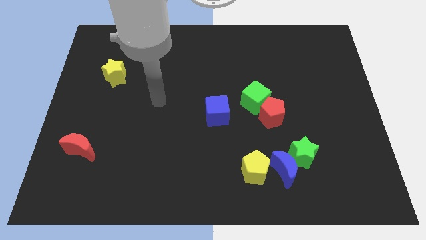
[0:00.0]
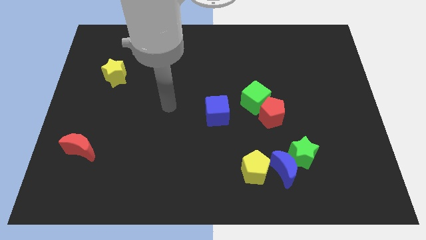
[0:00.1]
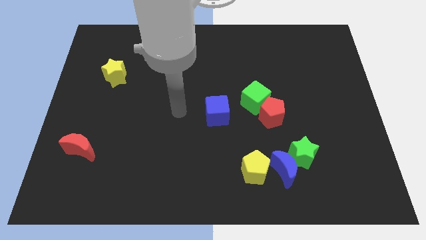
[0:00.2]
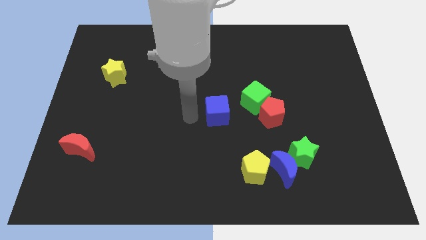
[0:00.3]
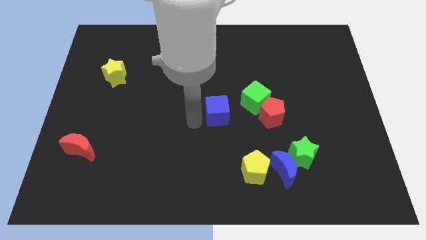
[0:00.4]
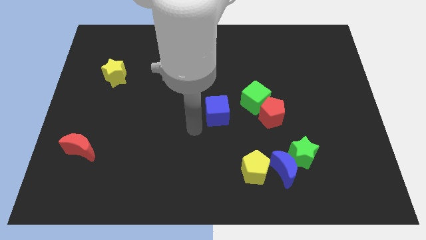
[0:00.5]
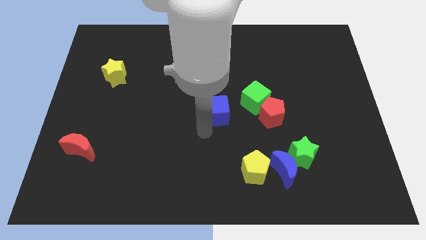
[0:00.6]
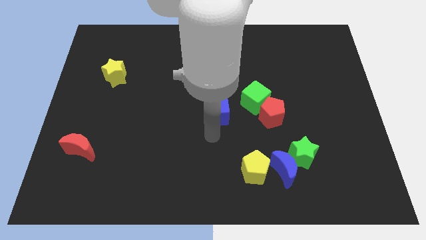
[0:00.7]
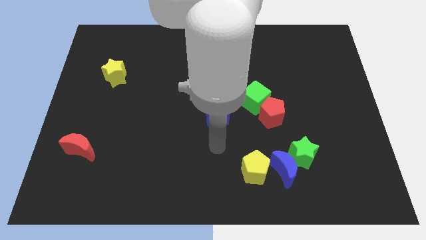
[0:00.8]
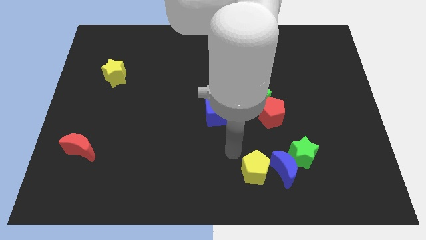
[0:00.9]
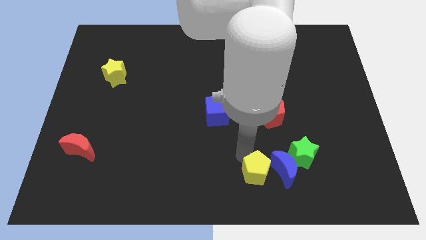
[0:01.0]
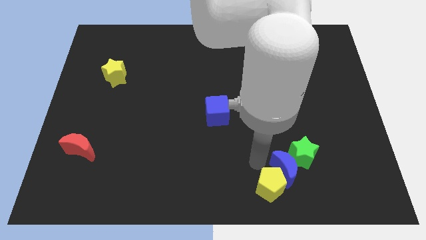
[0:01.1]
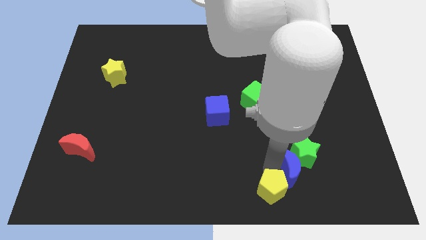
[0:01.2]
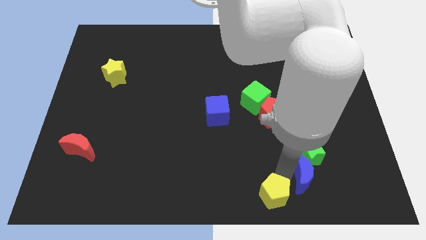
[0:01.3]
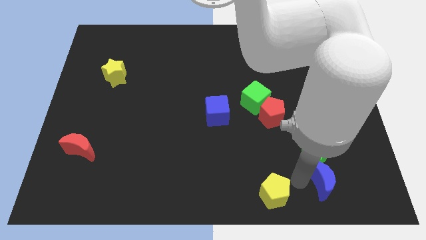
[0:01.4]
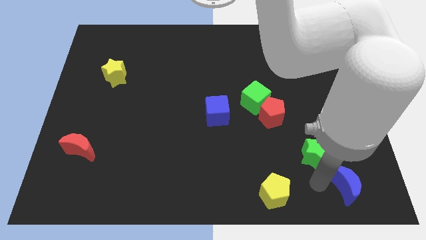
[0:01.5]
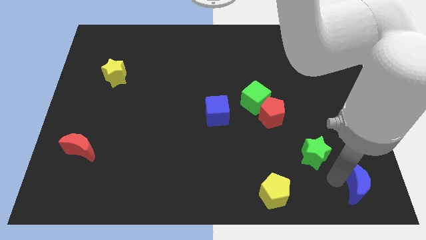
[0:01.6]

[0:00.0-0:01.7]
pull the green star apart from the blue moon

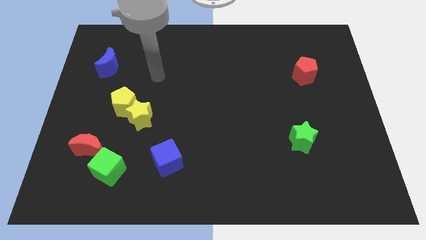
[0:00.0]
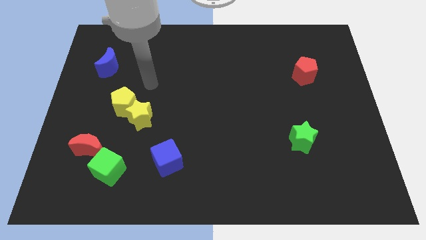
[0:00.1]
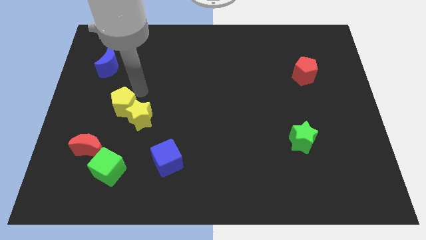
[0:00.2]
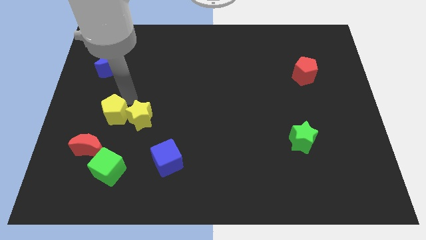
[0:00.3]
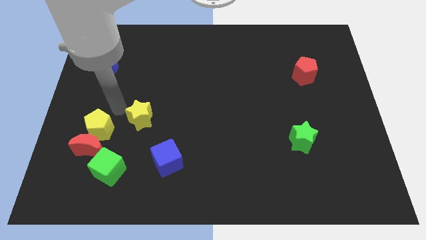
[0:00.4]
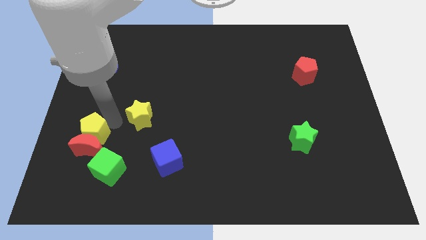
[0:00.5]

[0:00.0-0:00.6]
move the yellow star away from the yellow pentagon

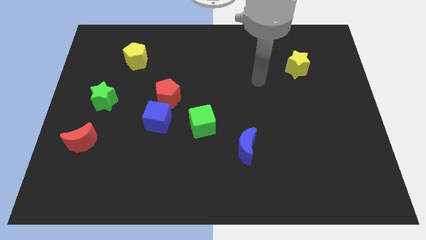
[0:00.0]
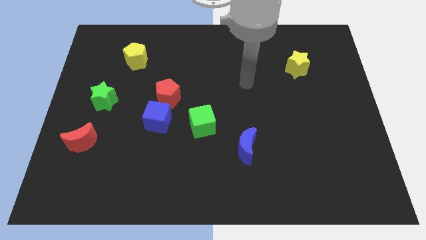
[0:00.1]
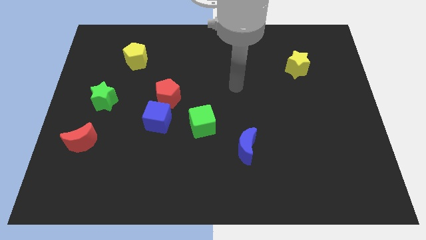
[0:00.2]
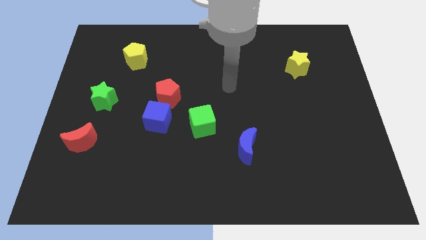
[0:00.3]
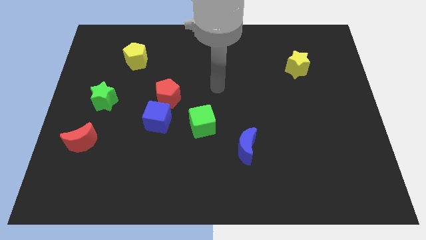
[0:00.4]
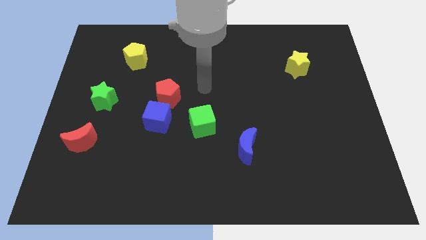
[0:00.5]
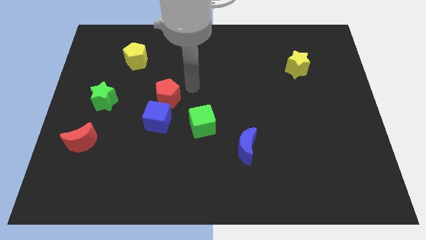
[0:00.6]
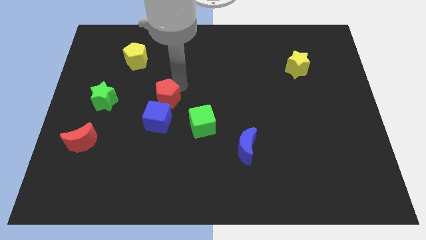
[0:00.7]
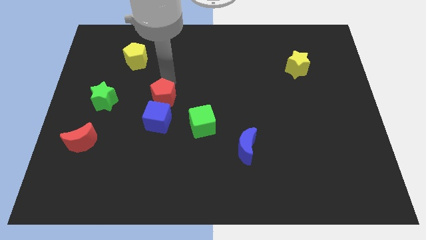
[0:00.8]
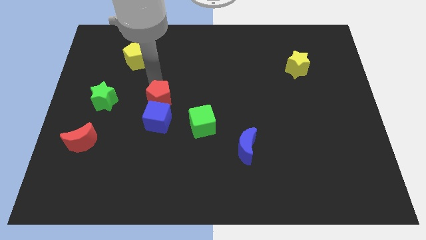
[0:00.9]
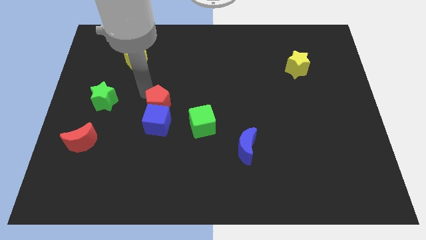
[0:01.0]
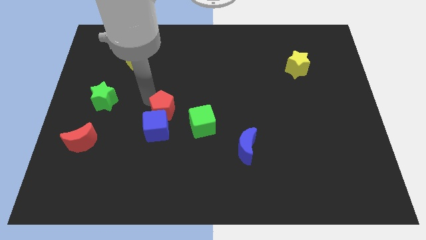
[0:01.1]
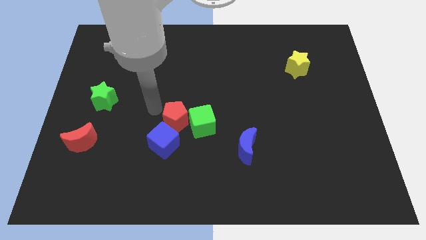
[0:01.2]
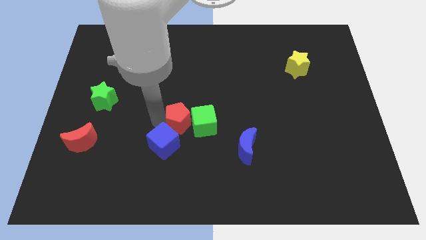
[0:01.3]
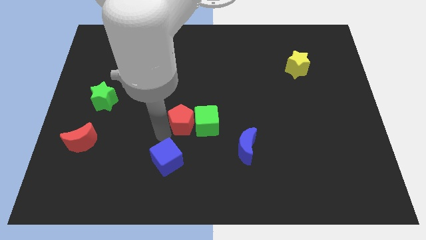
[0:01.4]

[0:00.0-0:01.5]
pull the red pentagon apart from the blue cube

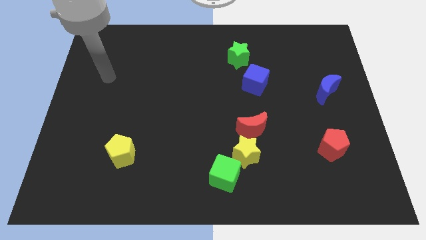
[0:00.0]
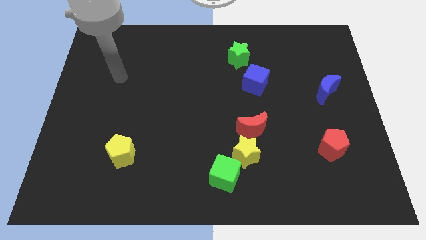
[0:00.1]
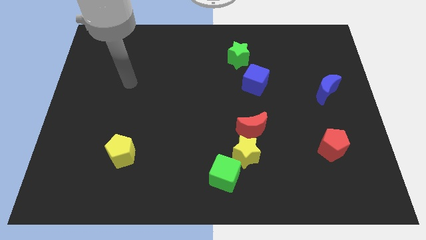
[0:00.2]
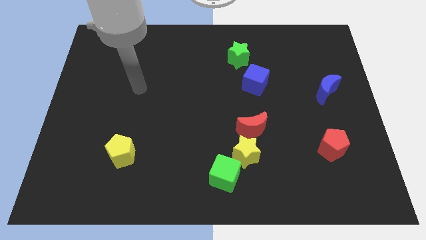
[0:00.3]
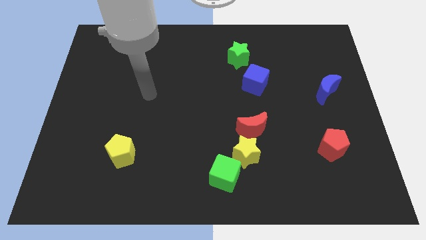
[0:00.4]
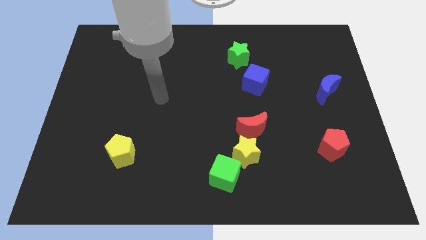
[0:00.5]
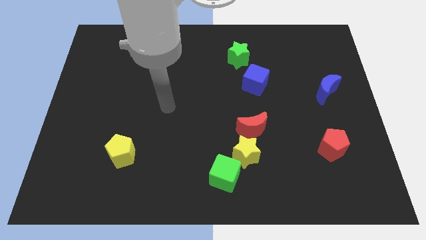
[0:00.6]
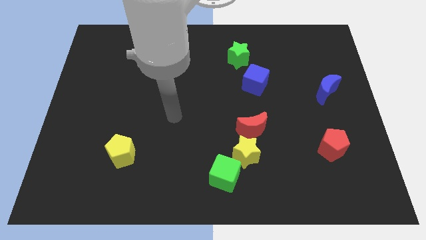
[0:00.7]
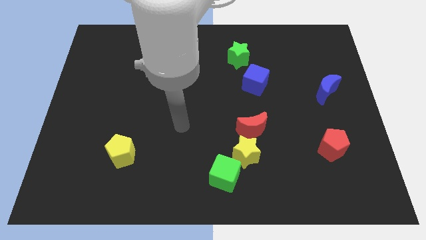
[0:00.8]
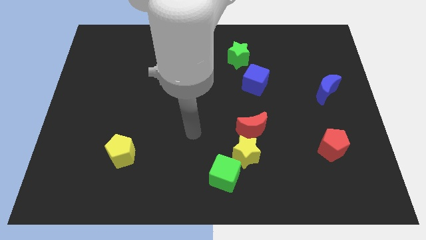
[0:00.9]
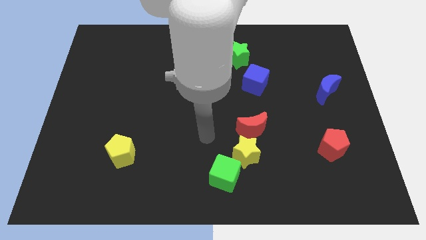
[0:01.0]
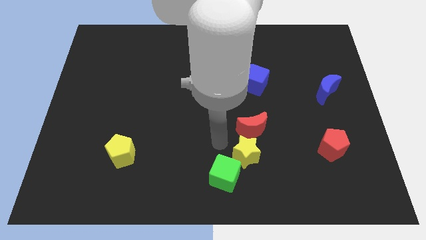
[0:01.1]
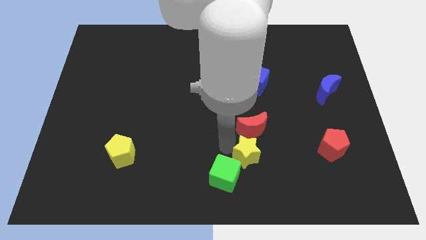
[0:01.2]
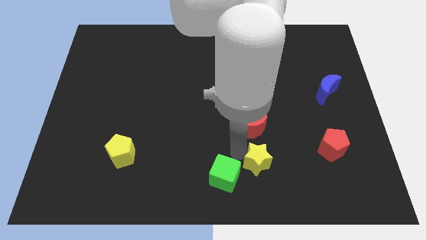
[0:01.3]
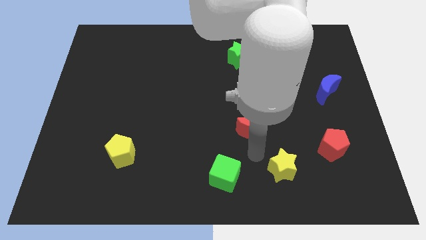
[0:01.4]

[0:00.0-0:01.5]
separate the red moon from the yellow star

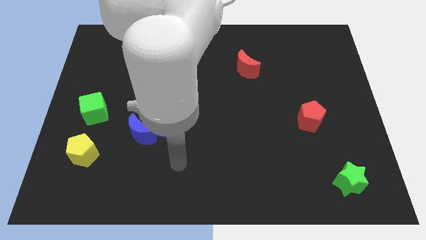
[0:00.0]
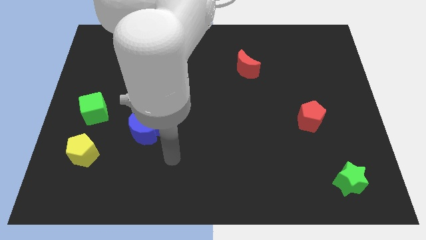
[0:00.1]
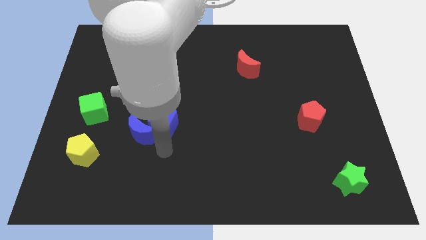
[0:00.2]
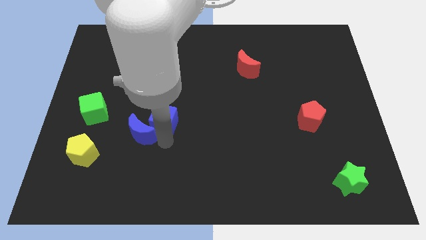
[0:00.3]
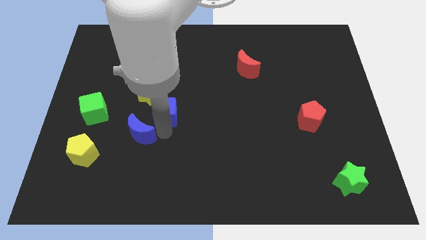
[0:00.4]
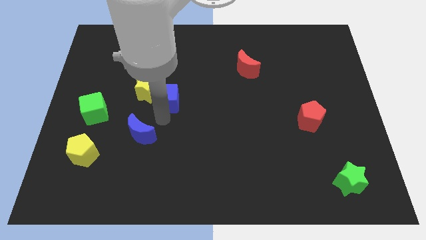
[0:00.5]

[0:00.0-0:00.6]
move the blue moon away from the blue cube

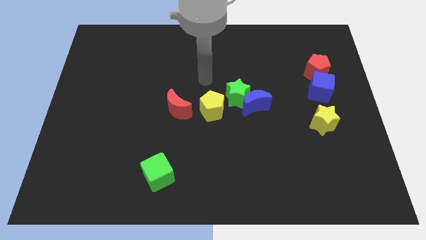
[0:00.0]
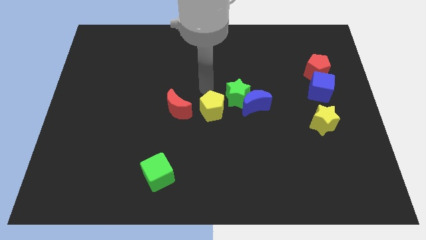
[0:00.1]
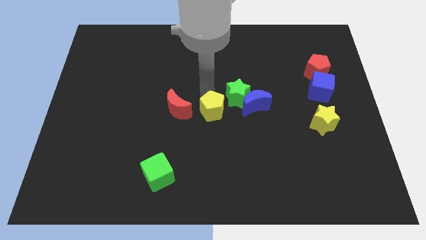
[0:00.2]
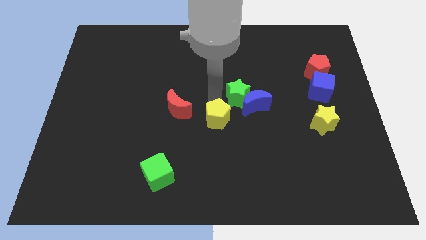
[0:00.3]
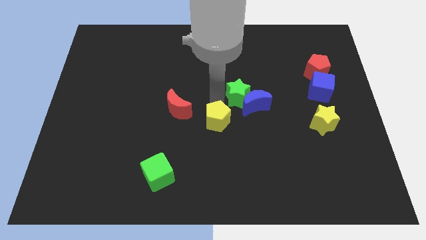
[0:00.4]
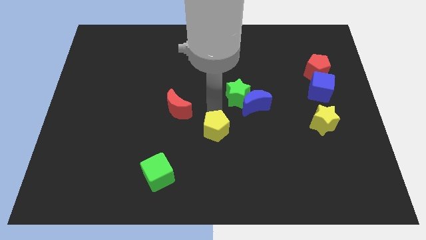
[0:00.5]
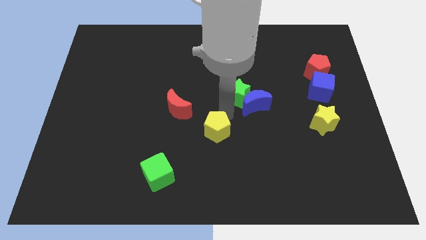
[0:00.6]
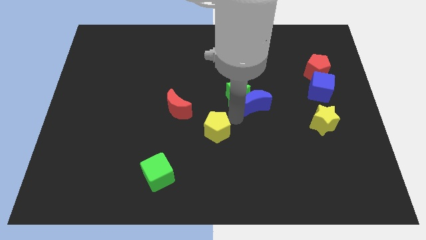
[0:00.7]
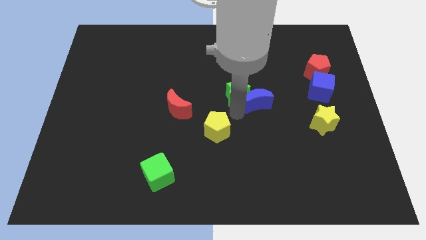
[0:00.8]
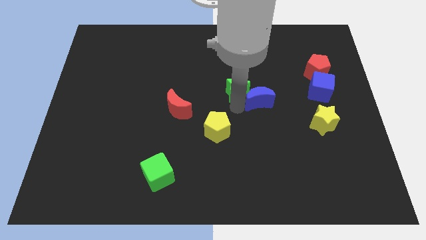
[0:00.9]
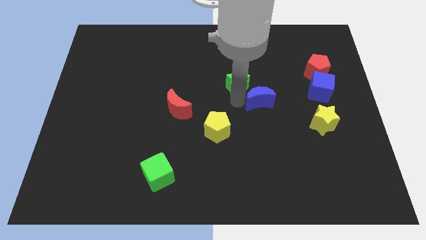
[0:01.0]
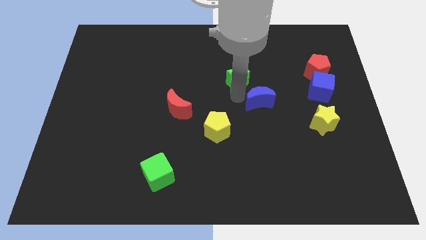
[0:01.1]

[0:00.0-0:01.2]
pull the green star apart from the blue moon and yellow pentagon

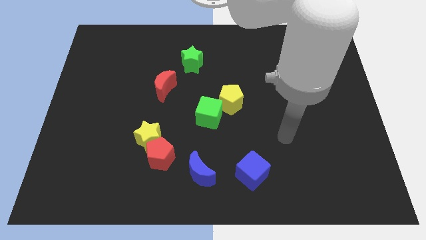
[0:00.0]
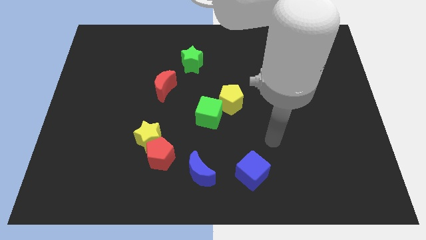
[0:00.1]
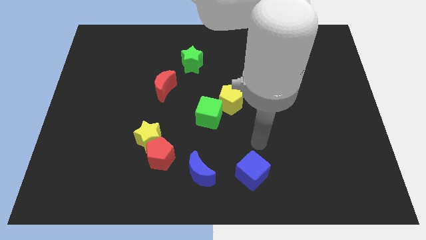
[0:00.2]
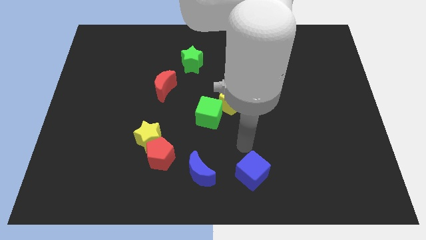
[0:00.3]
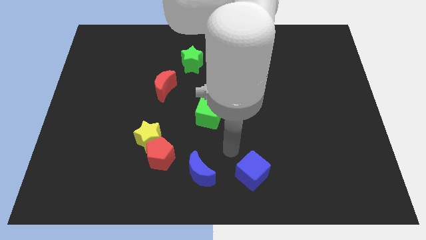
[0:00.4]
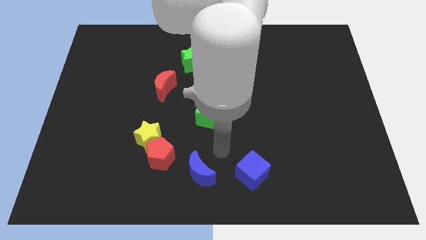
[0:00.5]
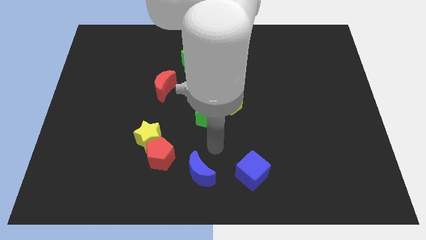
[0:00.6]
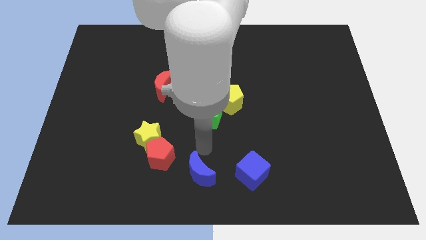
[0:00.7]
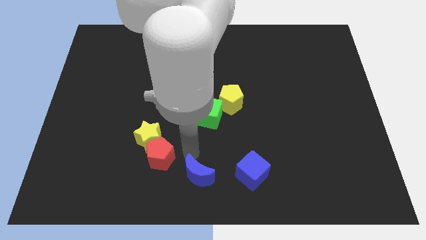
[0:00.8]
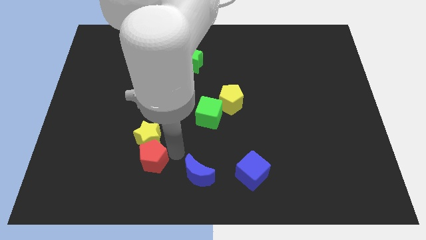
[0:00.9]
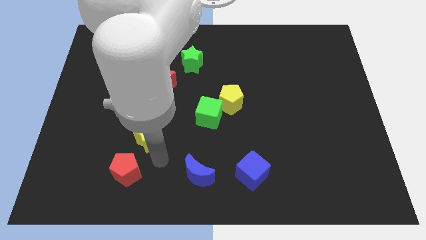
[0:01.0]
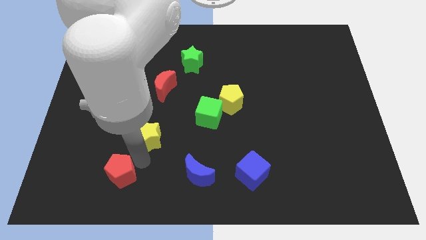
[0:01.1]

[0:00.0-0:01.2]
separate the yellow star from the red pentagon

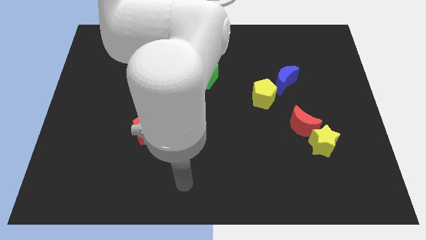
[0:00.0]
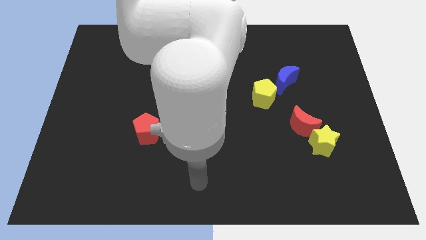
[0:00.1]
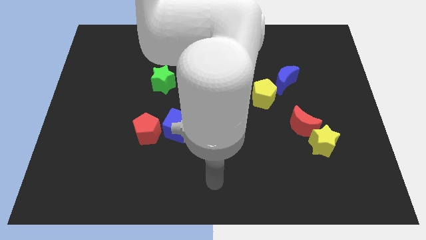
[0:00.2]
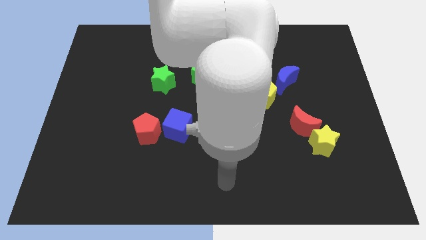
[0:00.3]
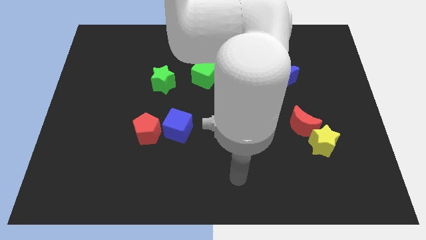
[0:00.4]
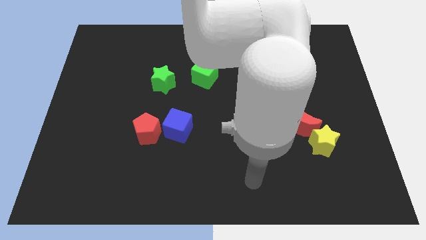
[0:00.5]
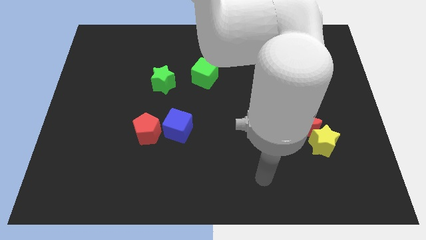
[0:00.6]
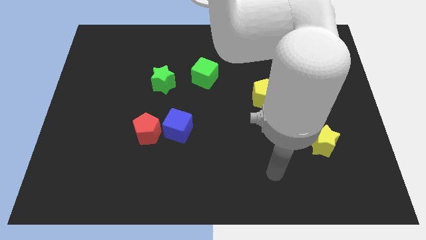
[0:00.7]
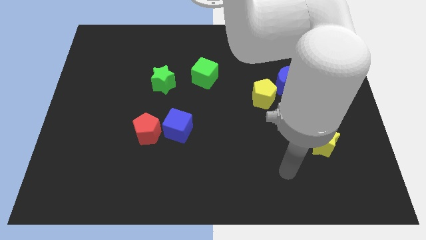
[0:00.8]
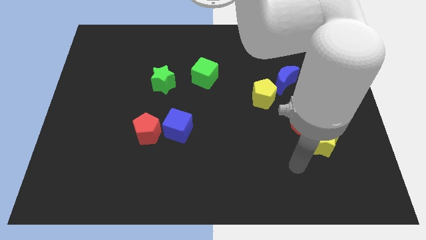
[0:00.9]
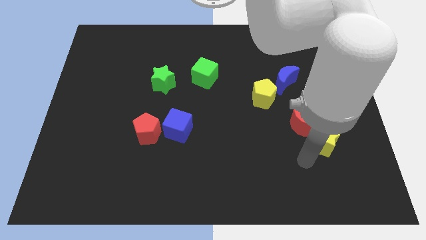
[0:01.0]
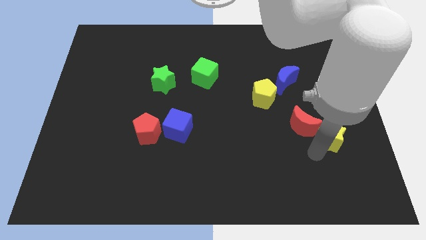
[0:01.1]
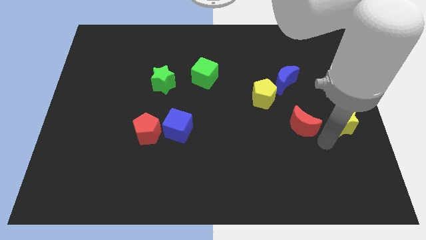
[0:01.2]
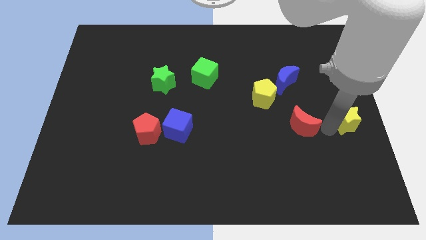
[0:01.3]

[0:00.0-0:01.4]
move the red moon away from the yellow star
